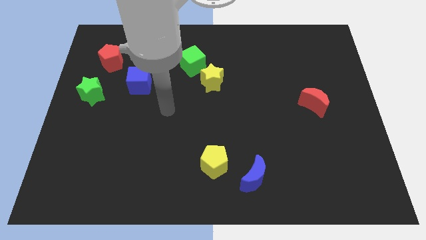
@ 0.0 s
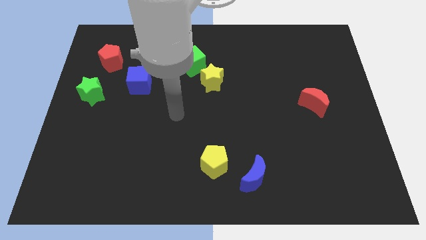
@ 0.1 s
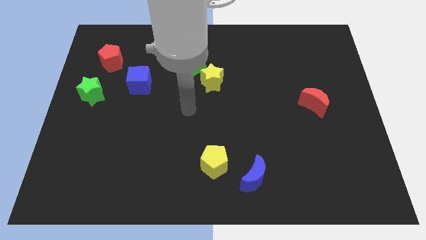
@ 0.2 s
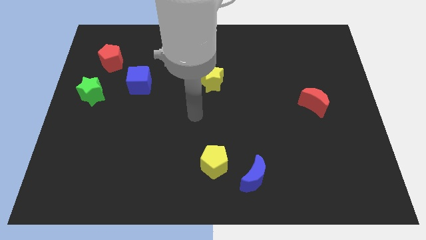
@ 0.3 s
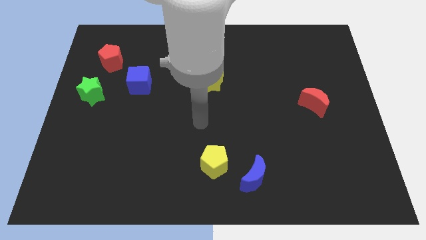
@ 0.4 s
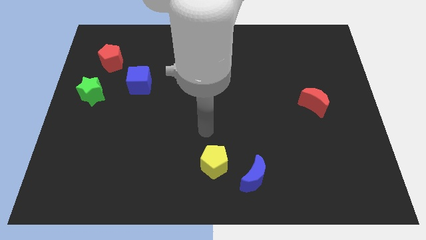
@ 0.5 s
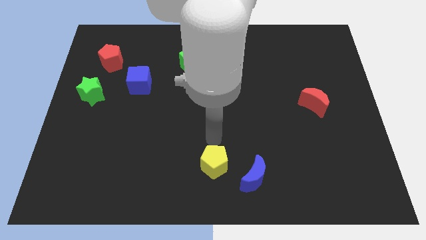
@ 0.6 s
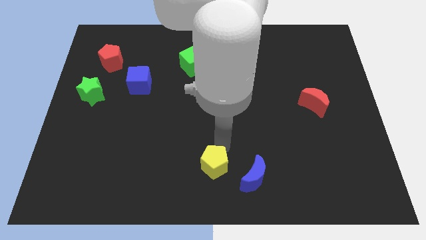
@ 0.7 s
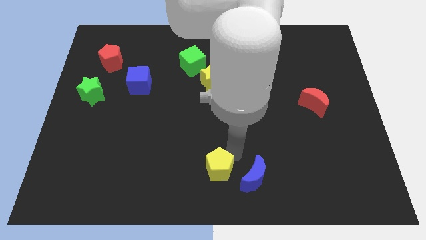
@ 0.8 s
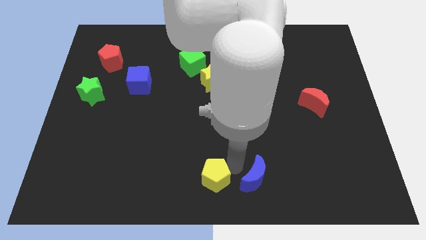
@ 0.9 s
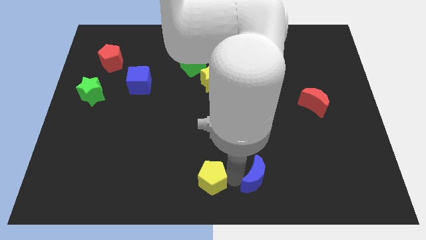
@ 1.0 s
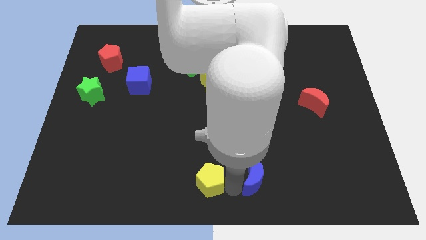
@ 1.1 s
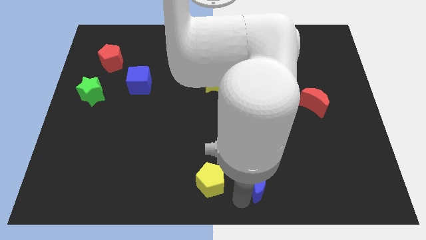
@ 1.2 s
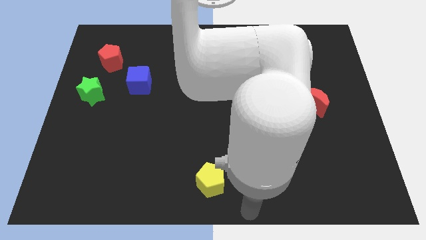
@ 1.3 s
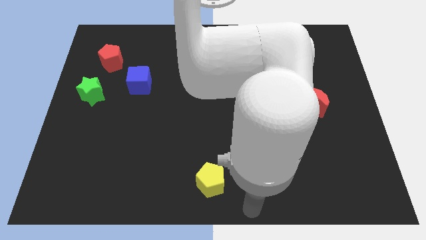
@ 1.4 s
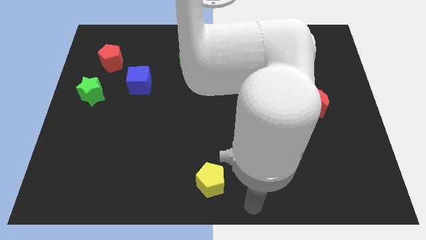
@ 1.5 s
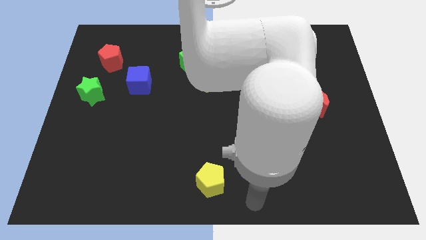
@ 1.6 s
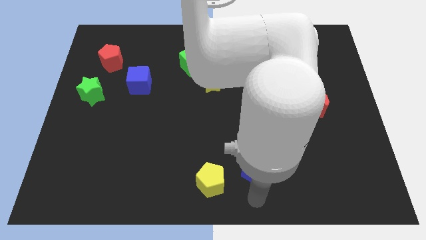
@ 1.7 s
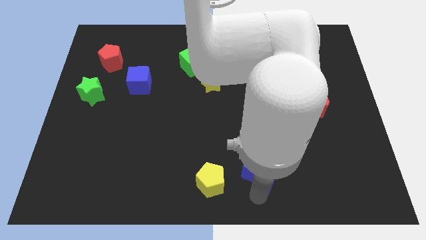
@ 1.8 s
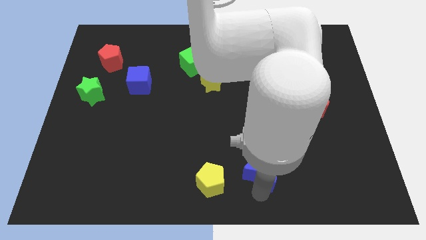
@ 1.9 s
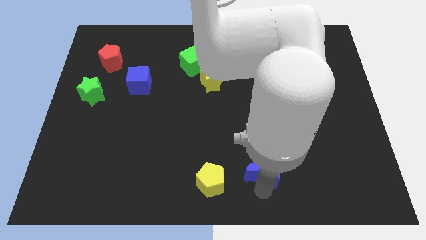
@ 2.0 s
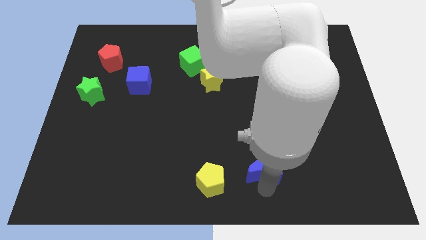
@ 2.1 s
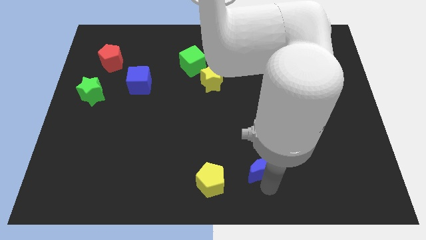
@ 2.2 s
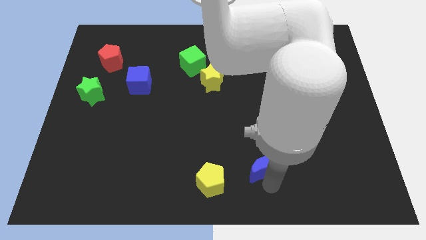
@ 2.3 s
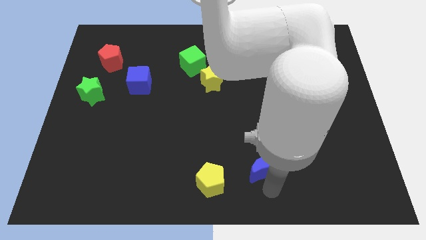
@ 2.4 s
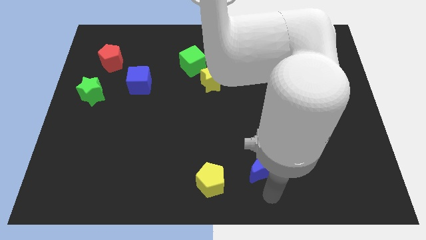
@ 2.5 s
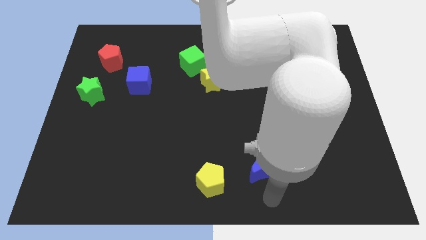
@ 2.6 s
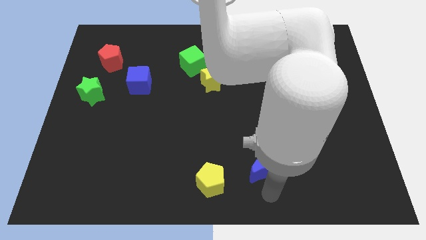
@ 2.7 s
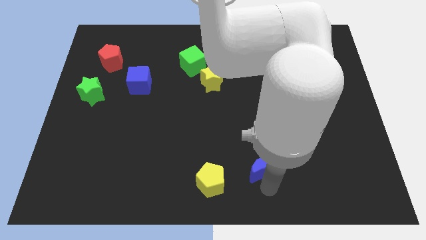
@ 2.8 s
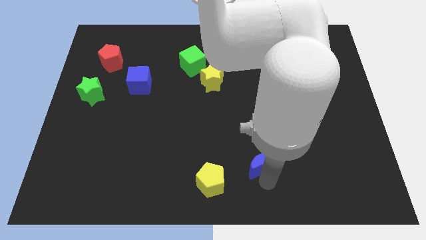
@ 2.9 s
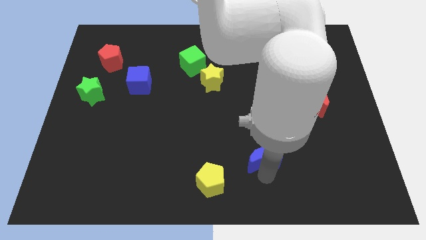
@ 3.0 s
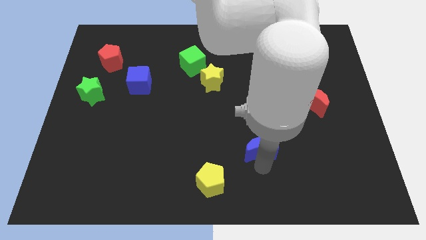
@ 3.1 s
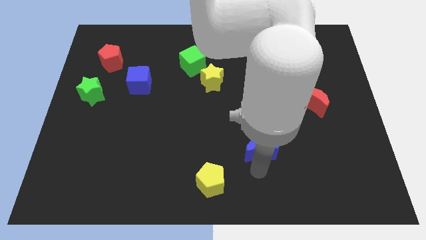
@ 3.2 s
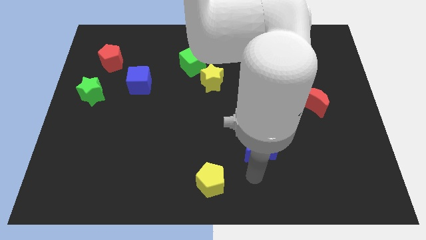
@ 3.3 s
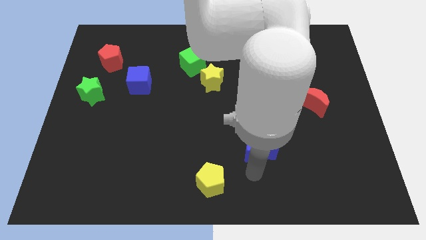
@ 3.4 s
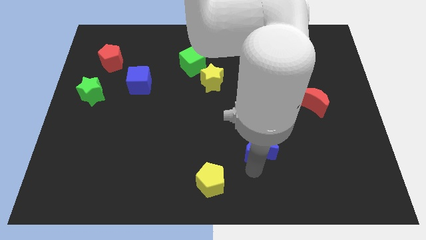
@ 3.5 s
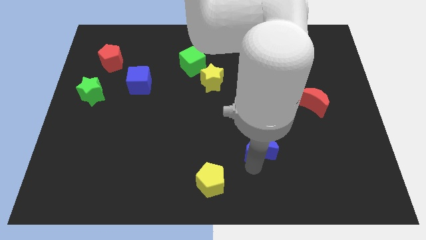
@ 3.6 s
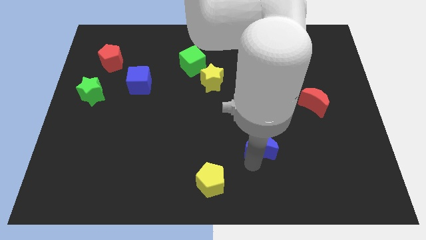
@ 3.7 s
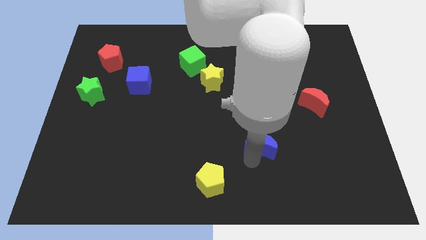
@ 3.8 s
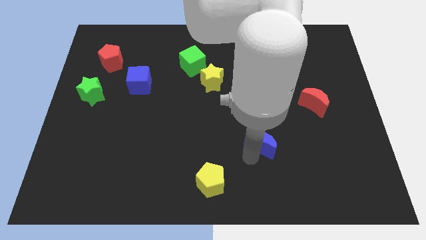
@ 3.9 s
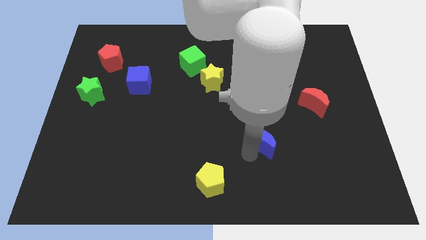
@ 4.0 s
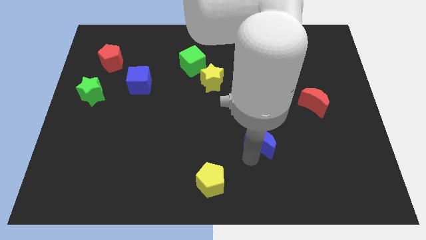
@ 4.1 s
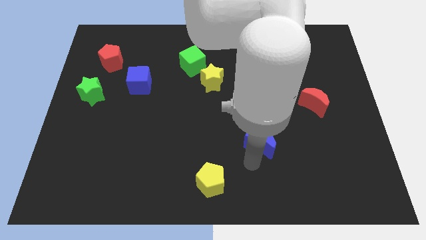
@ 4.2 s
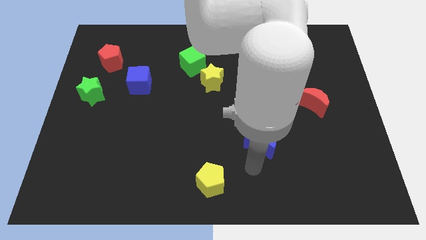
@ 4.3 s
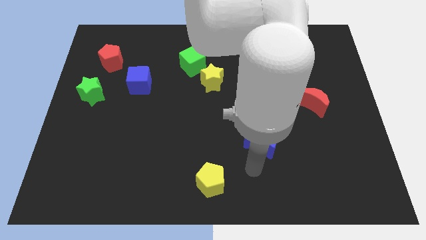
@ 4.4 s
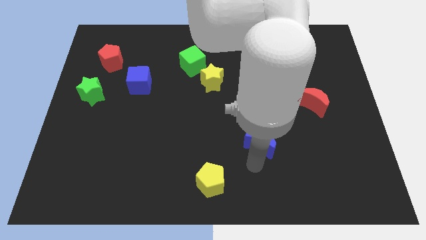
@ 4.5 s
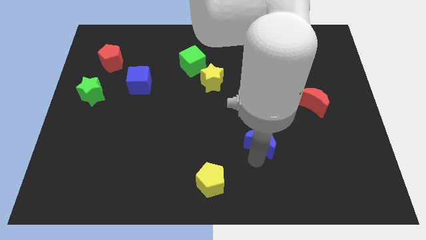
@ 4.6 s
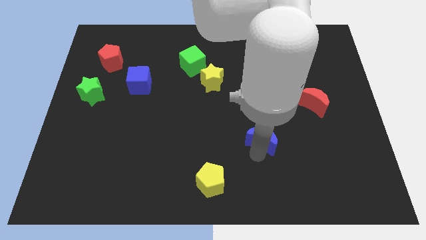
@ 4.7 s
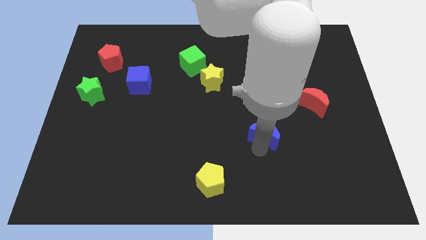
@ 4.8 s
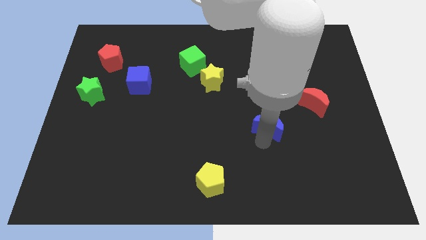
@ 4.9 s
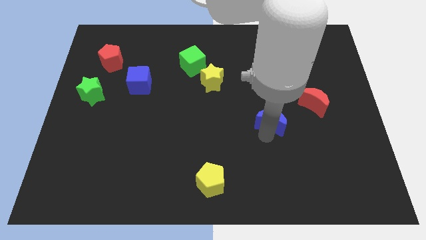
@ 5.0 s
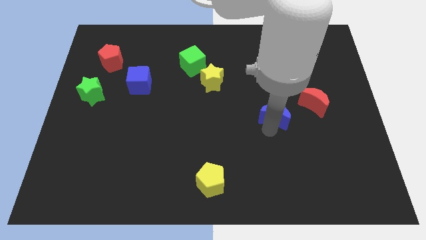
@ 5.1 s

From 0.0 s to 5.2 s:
slide the blue moon left of the red moon

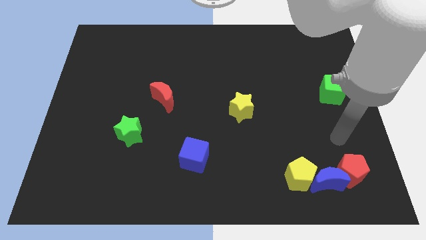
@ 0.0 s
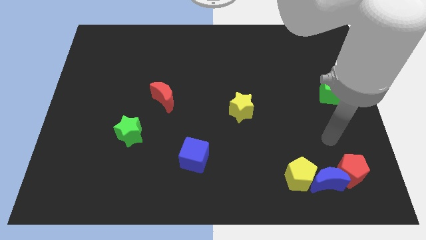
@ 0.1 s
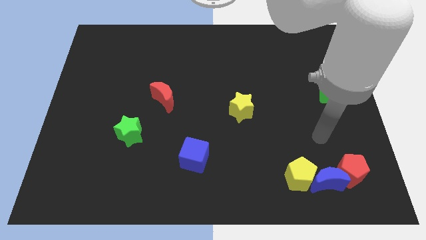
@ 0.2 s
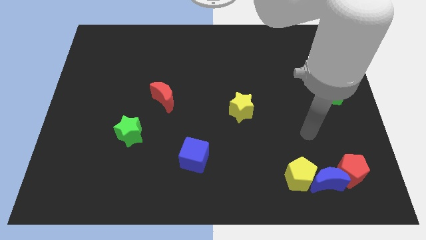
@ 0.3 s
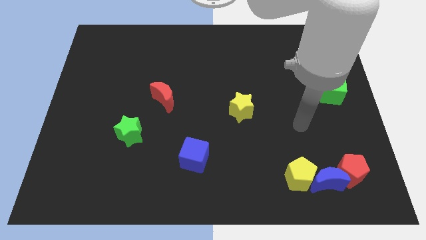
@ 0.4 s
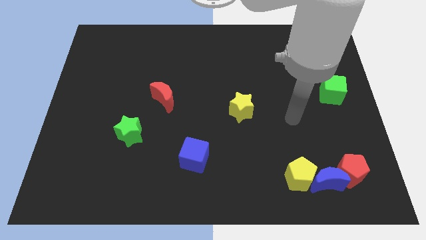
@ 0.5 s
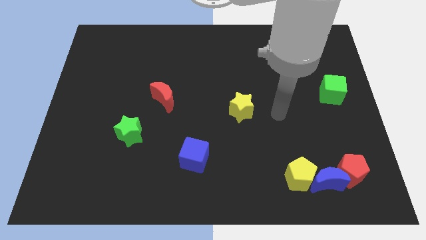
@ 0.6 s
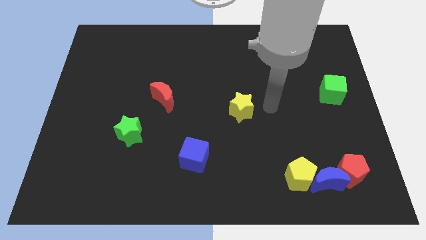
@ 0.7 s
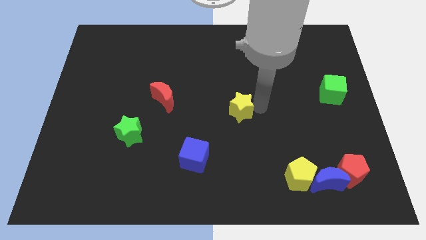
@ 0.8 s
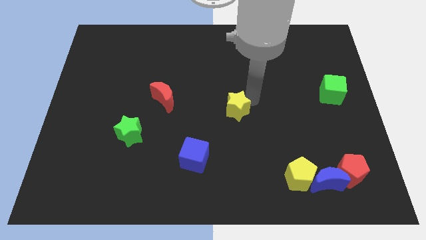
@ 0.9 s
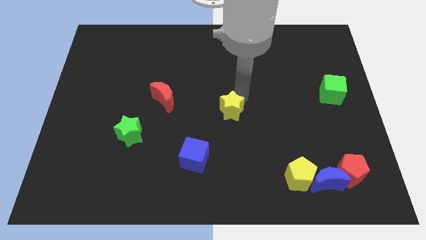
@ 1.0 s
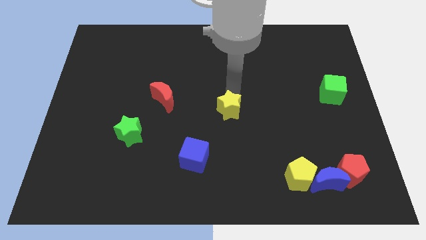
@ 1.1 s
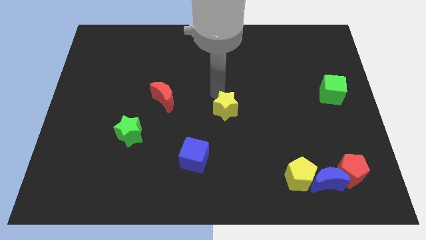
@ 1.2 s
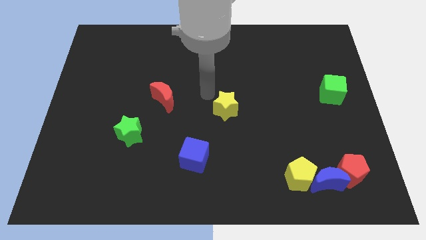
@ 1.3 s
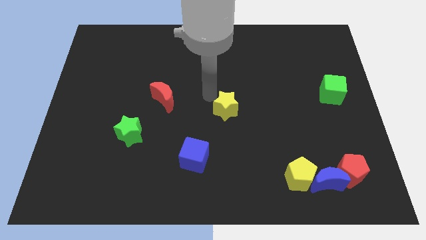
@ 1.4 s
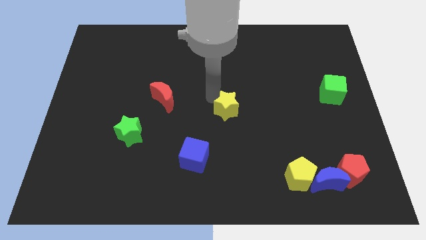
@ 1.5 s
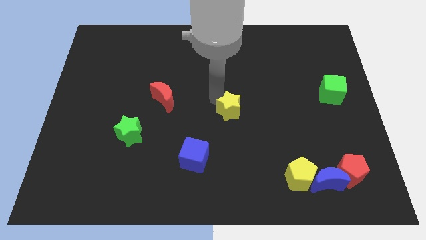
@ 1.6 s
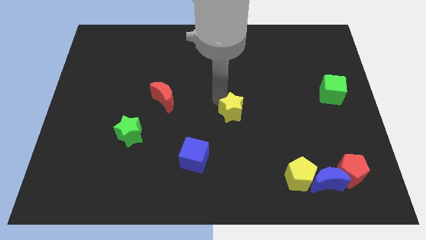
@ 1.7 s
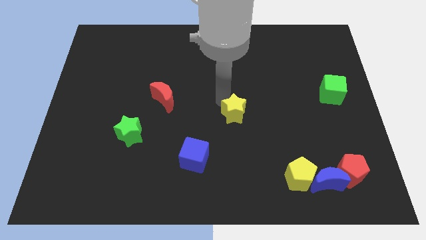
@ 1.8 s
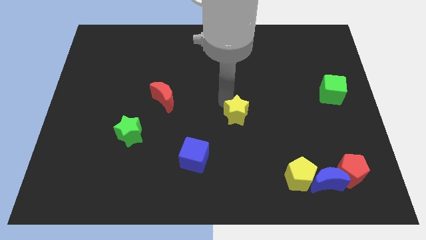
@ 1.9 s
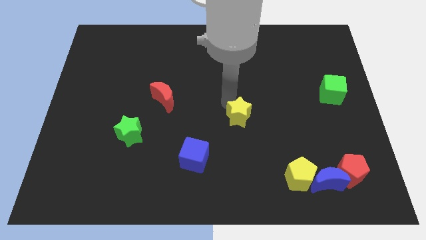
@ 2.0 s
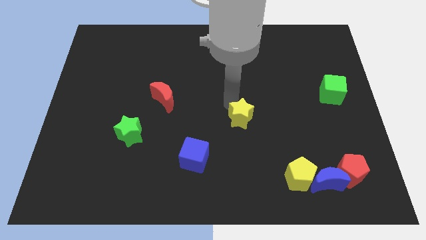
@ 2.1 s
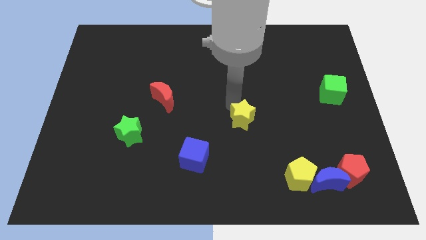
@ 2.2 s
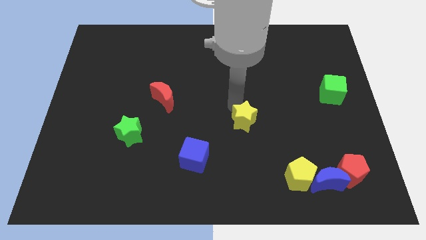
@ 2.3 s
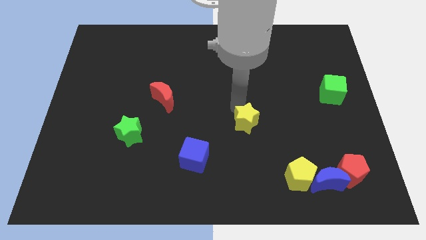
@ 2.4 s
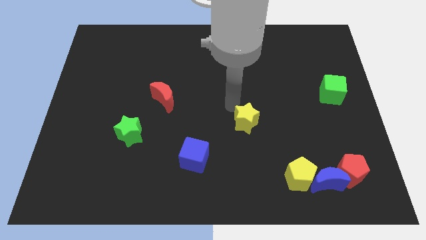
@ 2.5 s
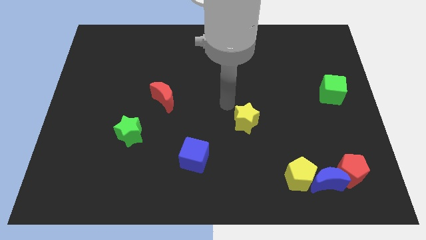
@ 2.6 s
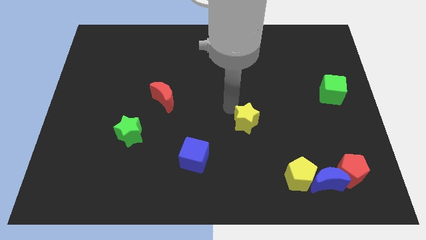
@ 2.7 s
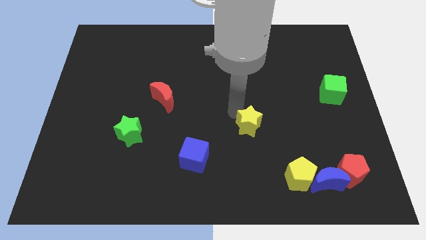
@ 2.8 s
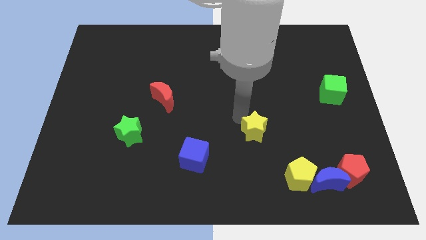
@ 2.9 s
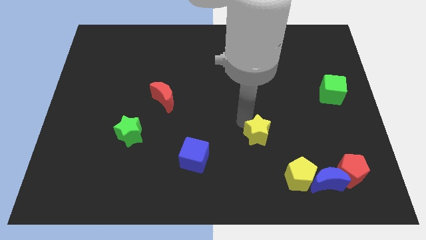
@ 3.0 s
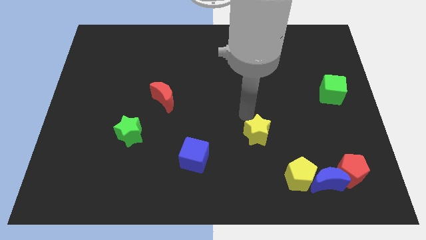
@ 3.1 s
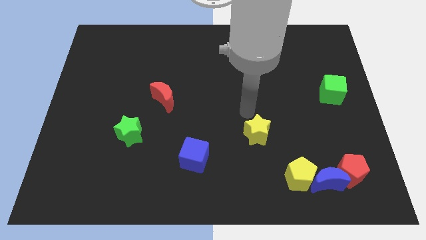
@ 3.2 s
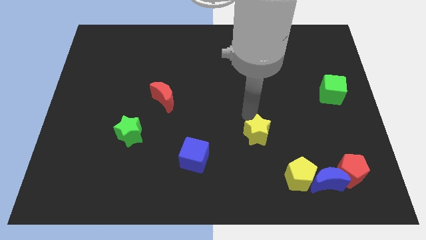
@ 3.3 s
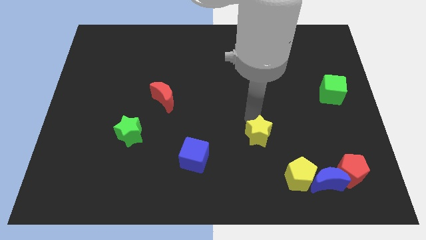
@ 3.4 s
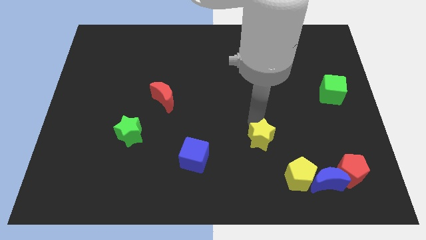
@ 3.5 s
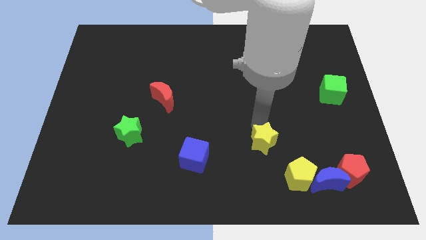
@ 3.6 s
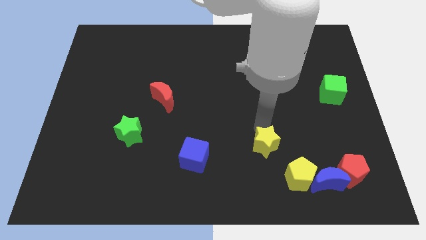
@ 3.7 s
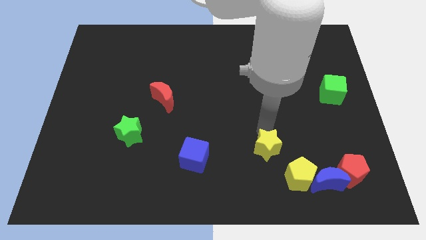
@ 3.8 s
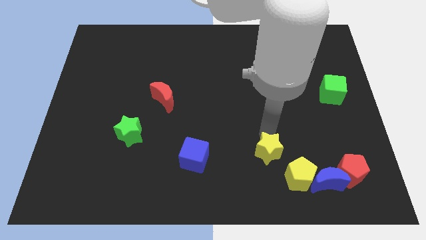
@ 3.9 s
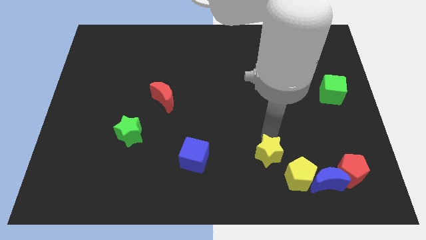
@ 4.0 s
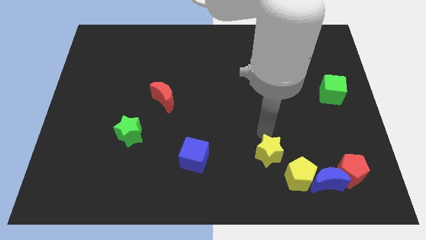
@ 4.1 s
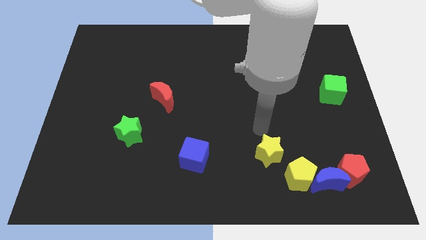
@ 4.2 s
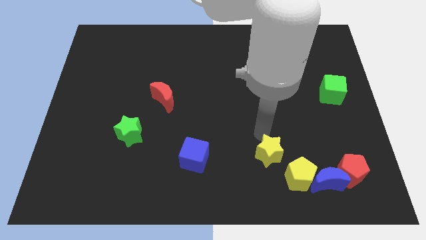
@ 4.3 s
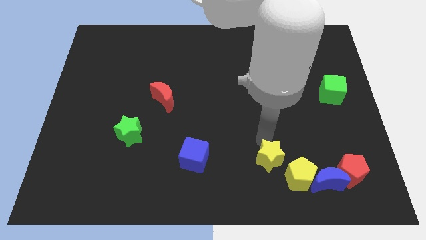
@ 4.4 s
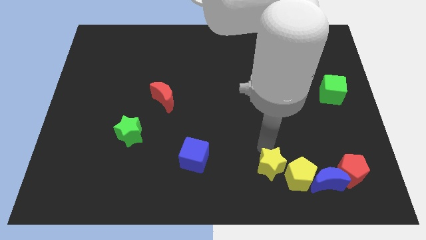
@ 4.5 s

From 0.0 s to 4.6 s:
slide the yellow star to the left side of the blue moon
